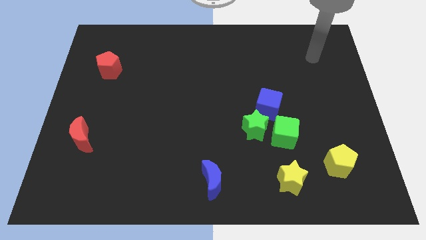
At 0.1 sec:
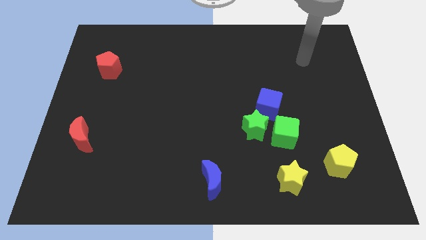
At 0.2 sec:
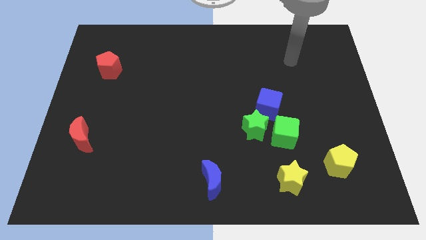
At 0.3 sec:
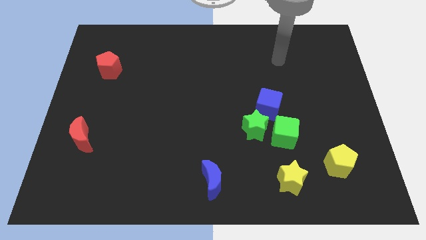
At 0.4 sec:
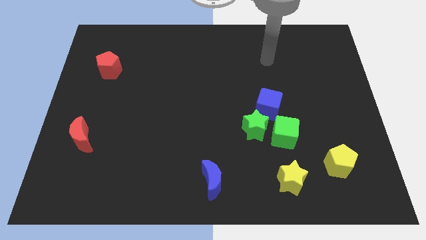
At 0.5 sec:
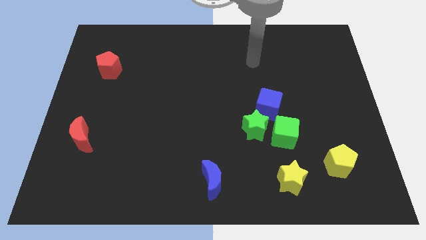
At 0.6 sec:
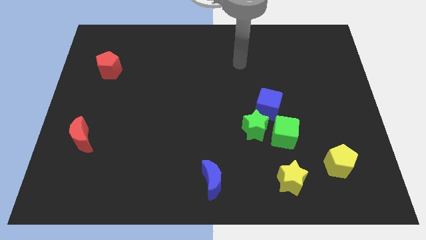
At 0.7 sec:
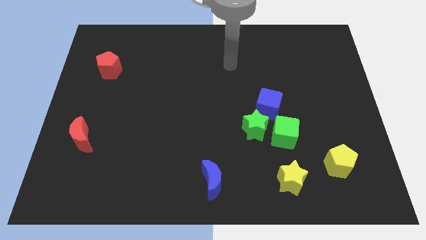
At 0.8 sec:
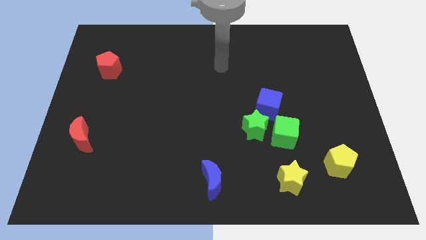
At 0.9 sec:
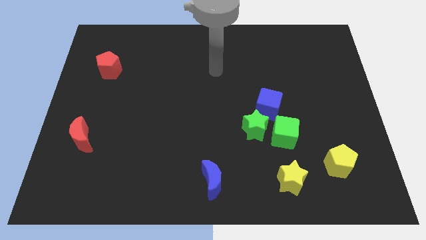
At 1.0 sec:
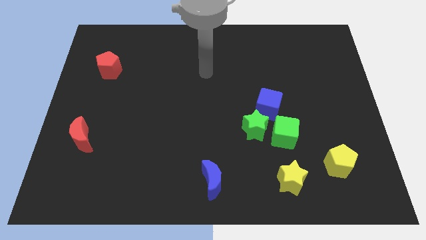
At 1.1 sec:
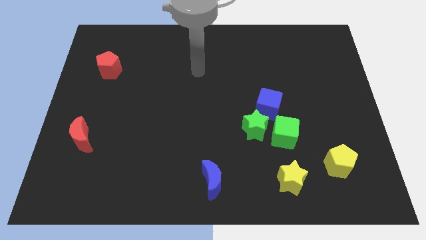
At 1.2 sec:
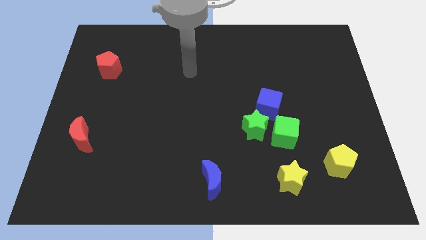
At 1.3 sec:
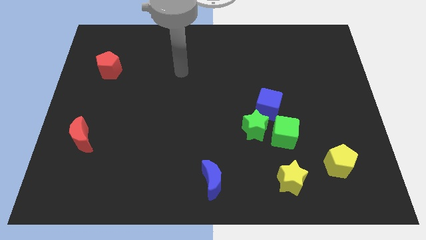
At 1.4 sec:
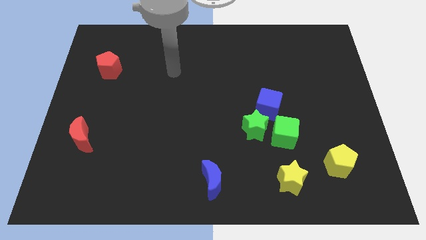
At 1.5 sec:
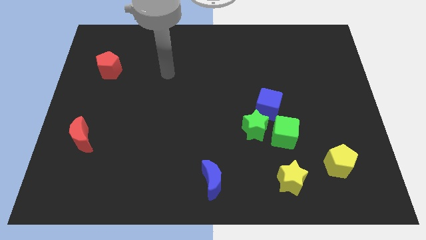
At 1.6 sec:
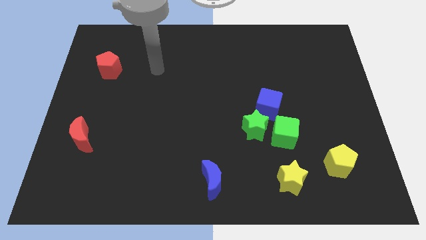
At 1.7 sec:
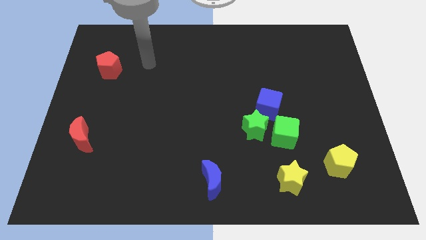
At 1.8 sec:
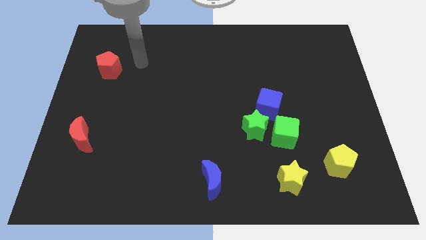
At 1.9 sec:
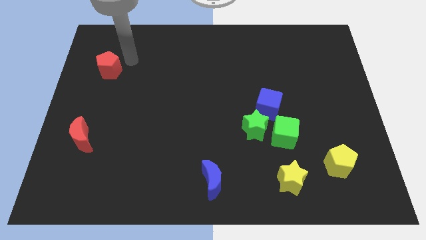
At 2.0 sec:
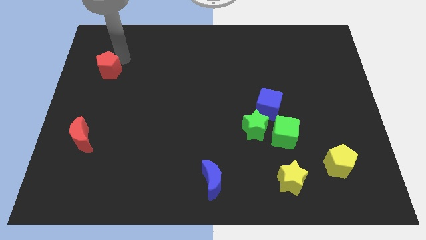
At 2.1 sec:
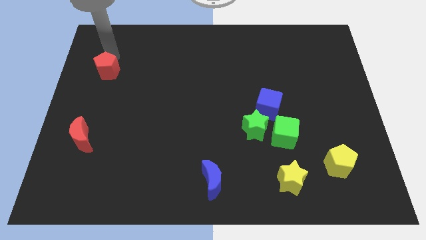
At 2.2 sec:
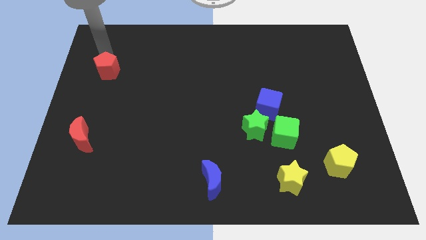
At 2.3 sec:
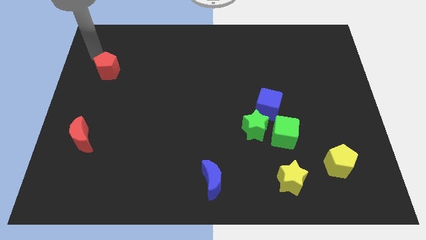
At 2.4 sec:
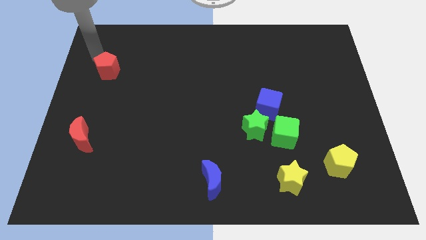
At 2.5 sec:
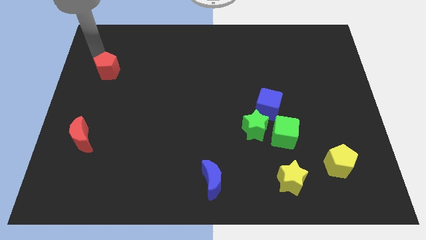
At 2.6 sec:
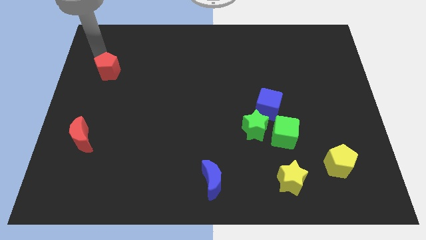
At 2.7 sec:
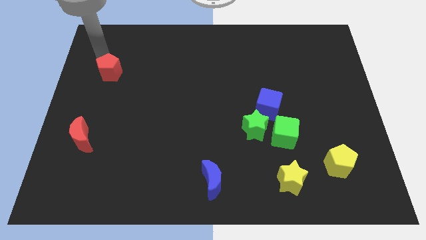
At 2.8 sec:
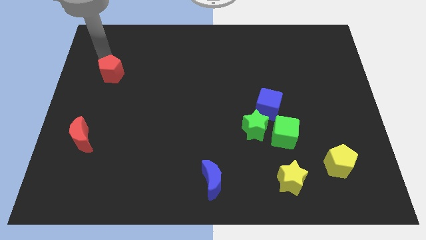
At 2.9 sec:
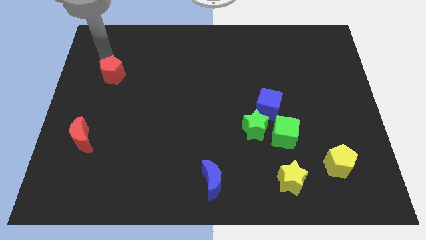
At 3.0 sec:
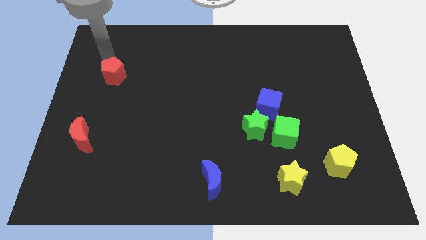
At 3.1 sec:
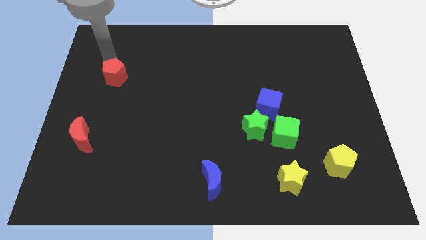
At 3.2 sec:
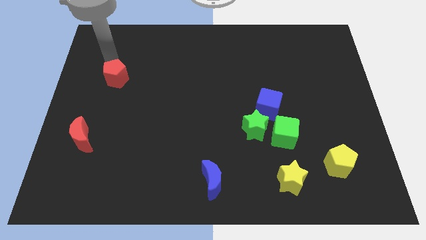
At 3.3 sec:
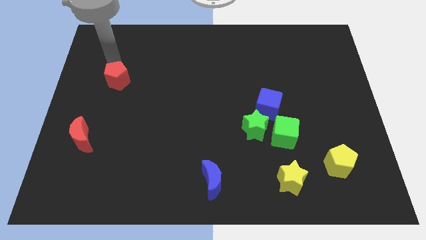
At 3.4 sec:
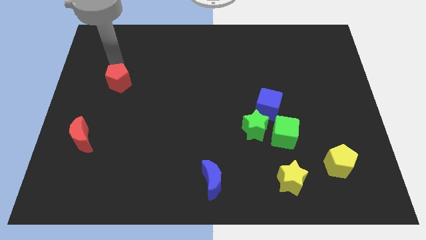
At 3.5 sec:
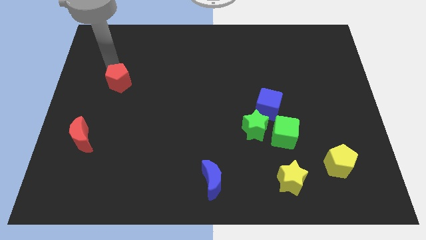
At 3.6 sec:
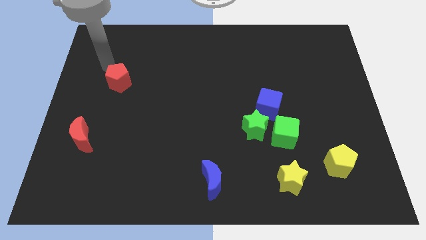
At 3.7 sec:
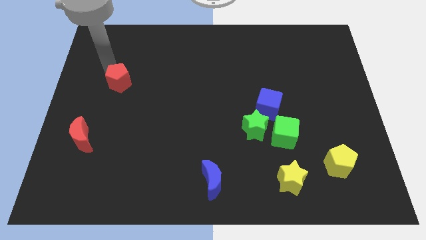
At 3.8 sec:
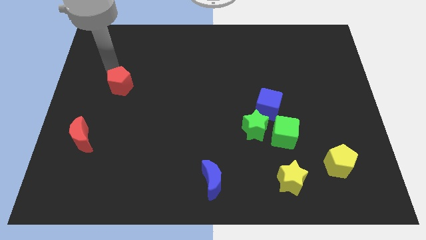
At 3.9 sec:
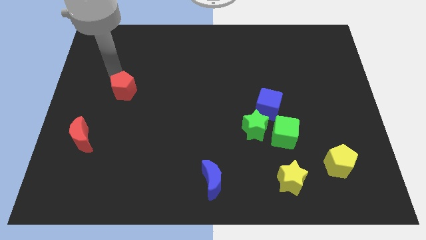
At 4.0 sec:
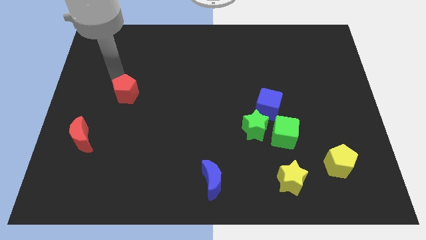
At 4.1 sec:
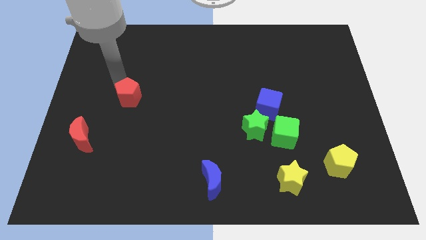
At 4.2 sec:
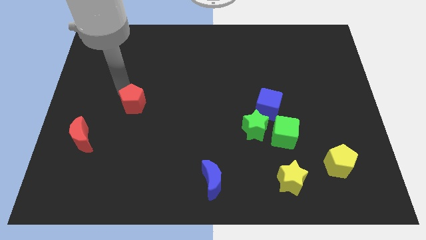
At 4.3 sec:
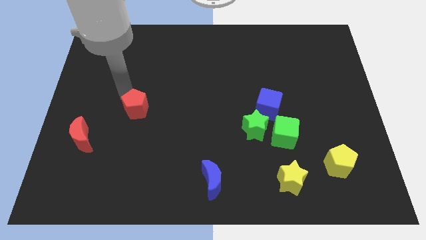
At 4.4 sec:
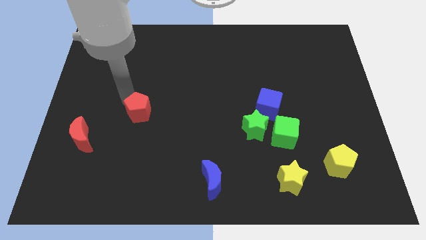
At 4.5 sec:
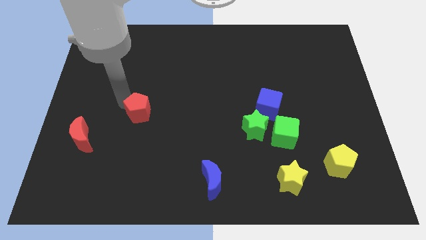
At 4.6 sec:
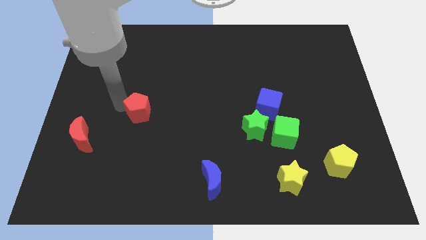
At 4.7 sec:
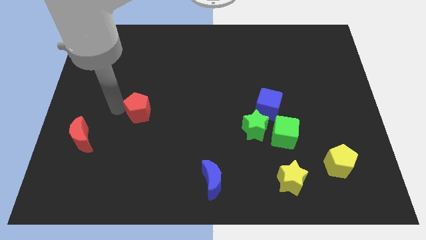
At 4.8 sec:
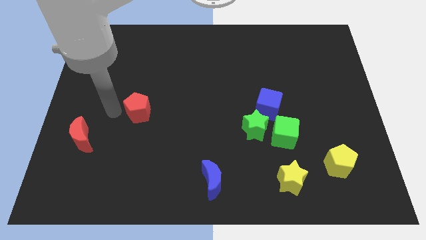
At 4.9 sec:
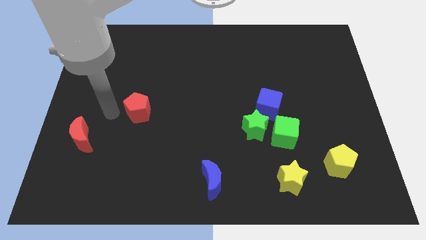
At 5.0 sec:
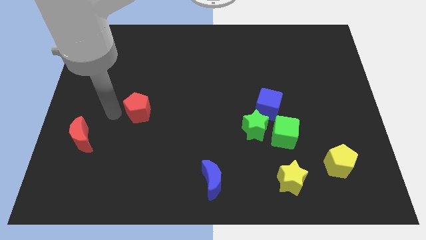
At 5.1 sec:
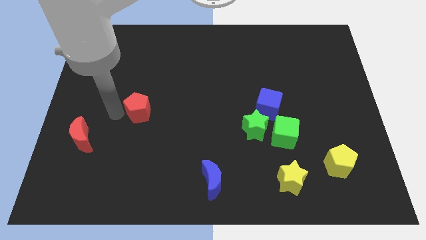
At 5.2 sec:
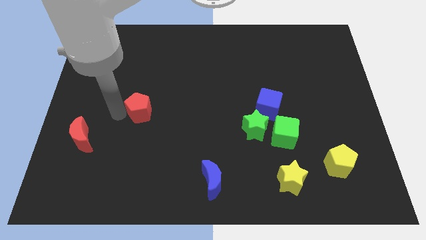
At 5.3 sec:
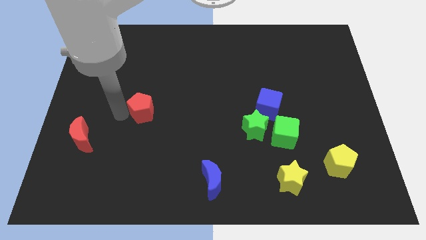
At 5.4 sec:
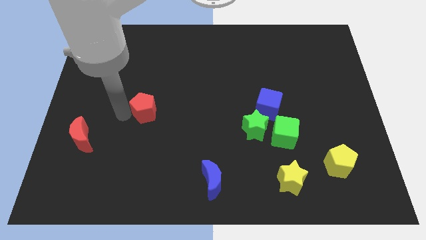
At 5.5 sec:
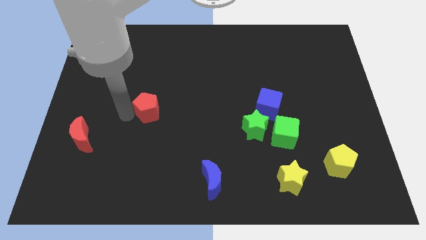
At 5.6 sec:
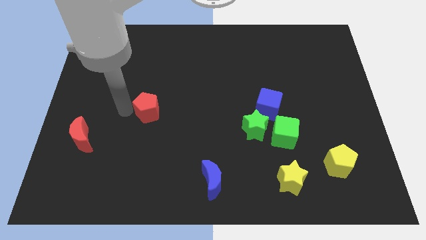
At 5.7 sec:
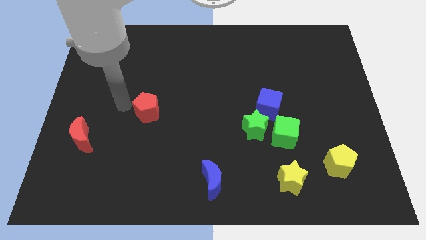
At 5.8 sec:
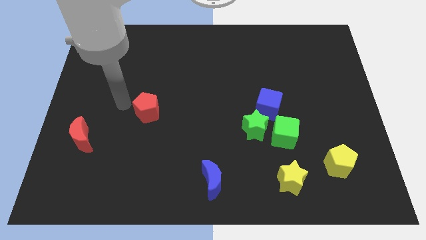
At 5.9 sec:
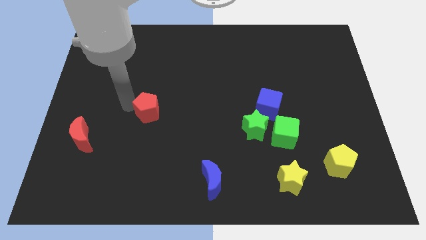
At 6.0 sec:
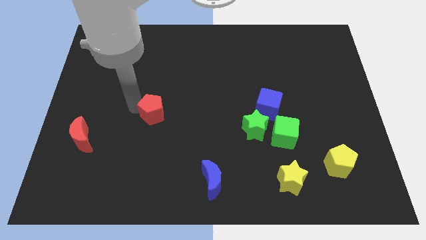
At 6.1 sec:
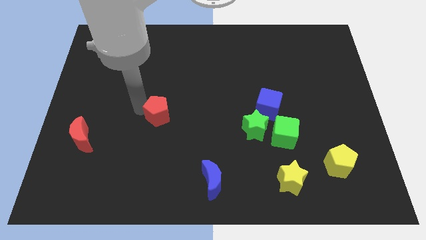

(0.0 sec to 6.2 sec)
slide the red pentagon diagonally downwards and to the right

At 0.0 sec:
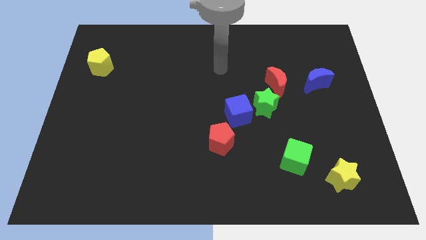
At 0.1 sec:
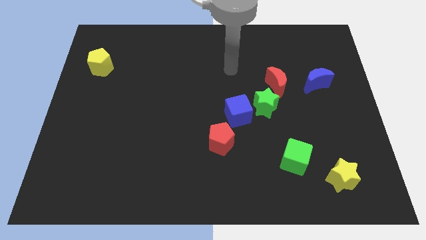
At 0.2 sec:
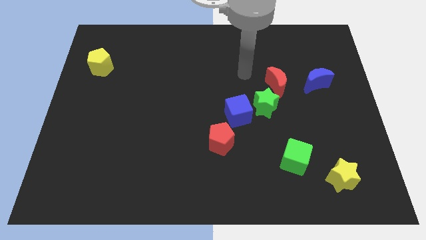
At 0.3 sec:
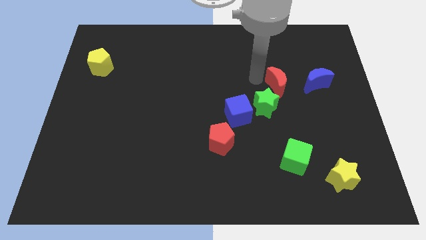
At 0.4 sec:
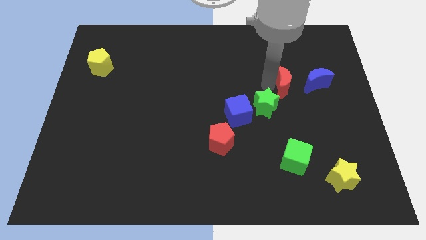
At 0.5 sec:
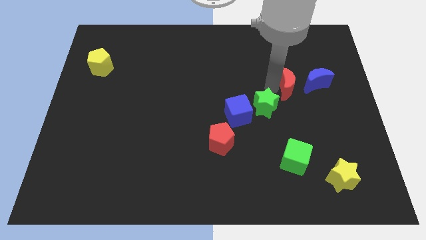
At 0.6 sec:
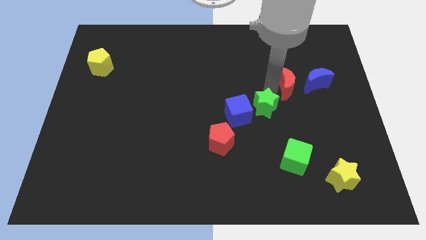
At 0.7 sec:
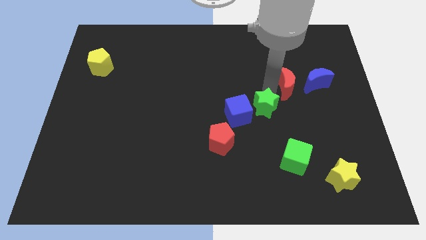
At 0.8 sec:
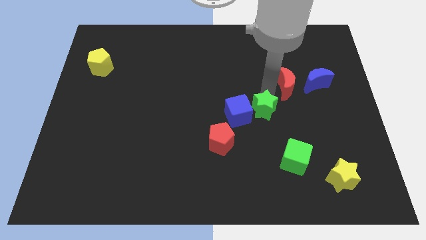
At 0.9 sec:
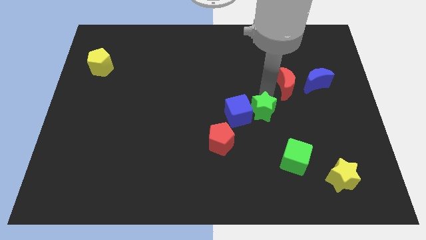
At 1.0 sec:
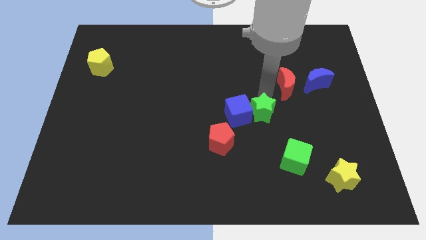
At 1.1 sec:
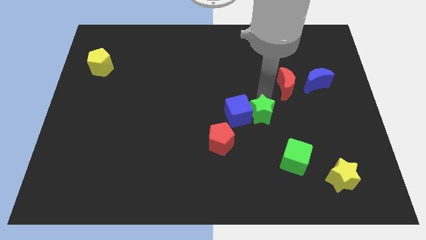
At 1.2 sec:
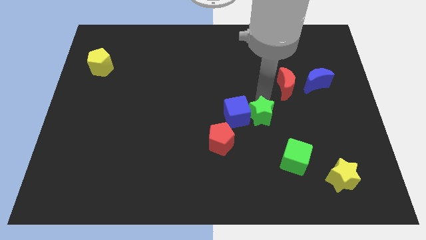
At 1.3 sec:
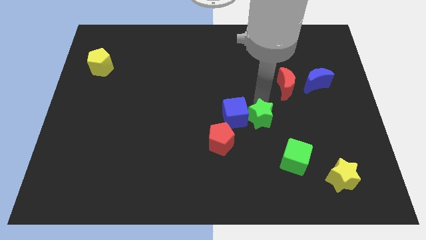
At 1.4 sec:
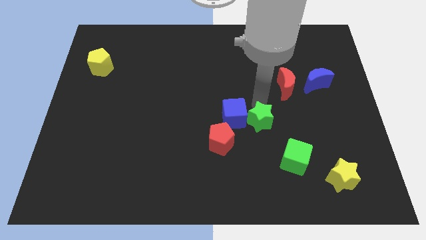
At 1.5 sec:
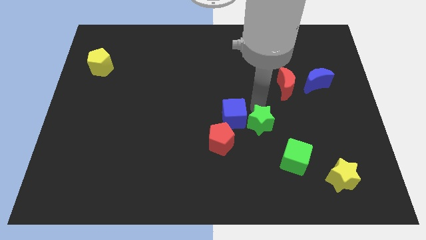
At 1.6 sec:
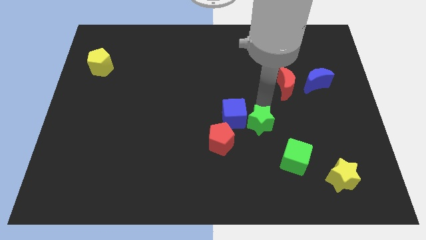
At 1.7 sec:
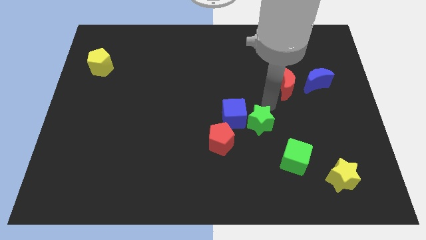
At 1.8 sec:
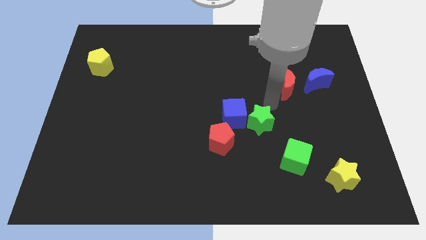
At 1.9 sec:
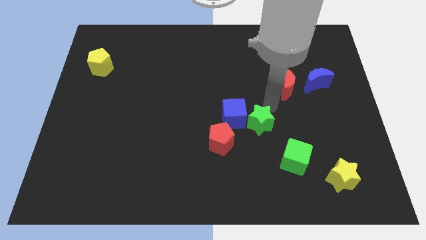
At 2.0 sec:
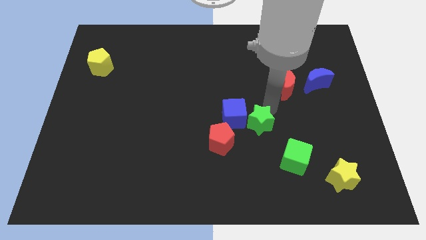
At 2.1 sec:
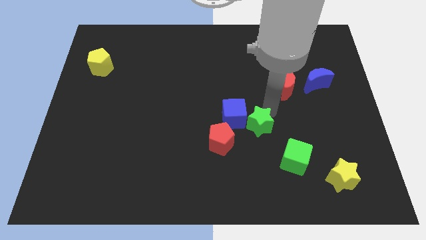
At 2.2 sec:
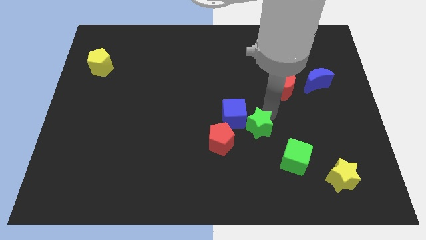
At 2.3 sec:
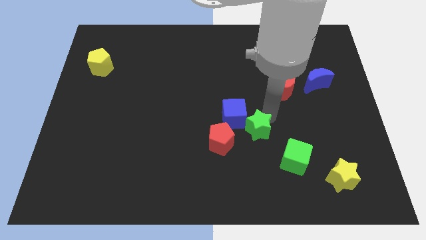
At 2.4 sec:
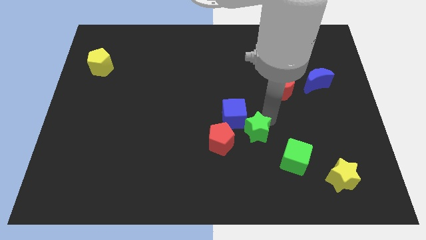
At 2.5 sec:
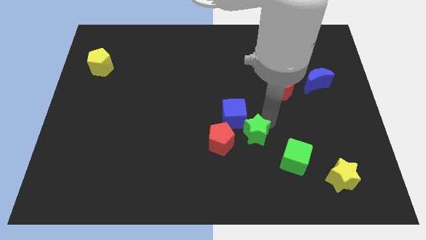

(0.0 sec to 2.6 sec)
move the green star somewhat down and then left
